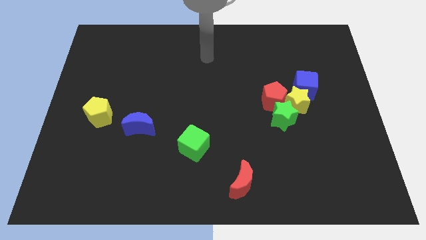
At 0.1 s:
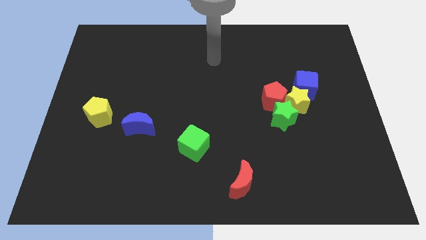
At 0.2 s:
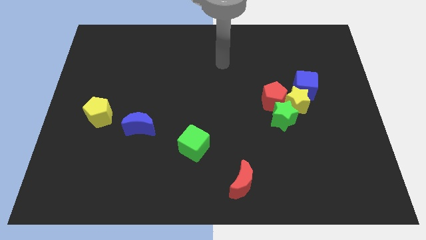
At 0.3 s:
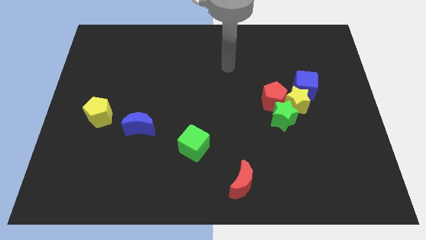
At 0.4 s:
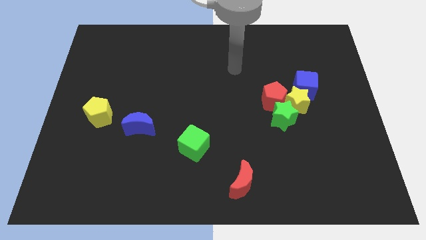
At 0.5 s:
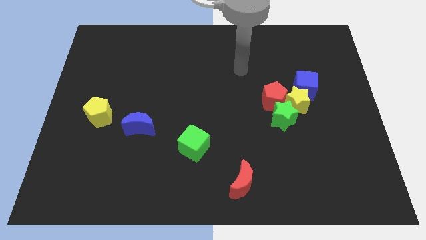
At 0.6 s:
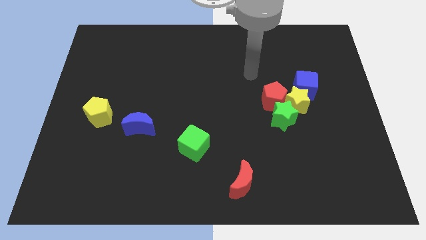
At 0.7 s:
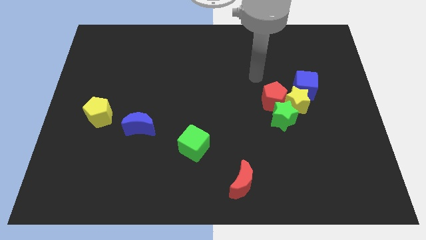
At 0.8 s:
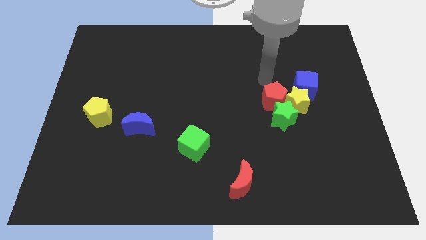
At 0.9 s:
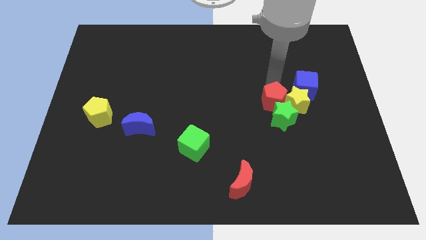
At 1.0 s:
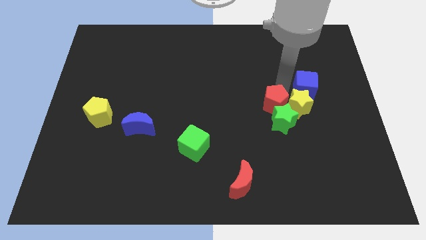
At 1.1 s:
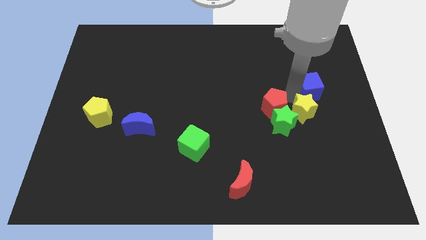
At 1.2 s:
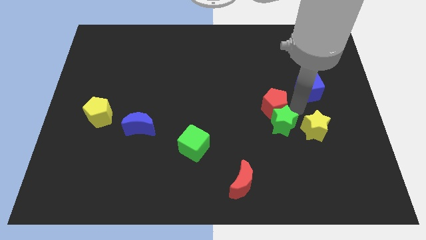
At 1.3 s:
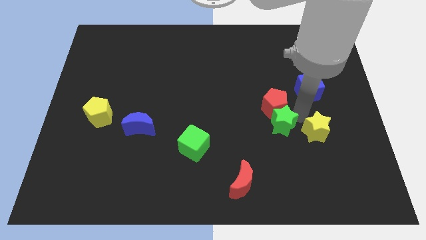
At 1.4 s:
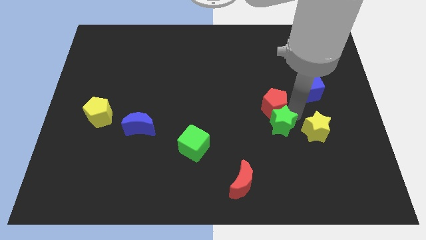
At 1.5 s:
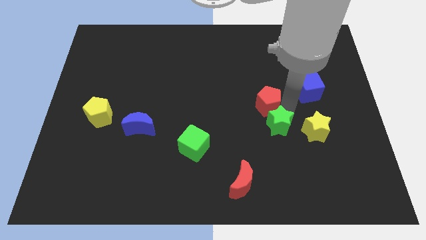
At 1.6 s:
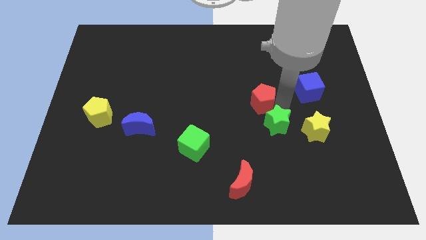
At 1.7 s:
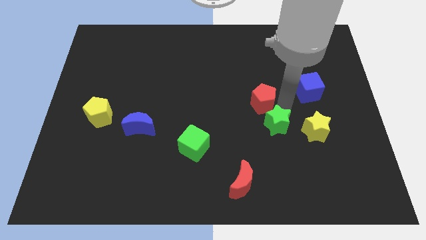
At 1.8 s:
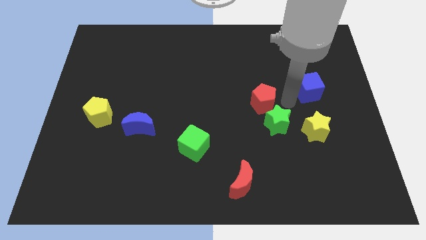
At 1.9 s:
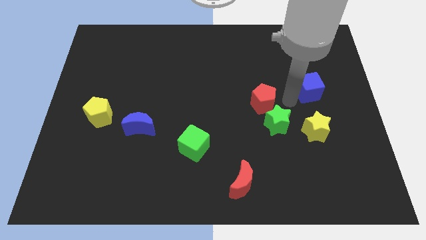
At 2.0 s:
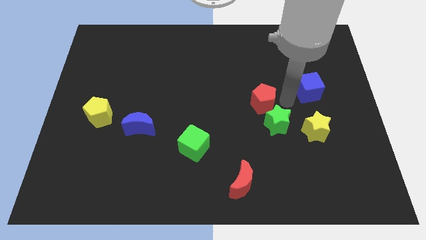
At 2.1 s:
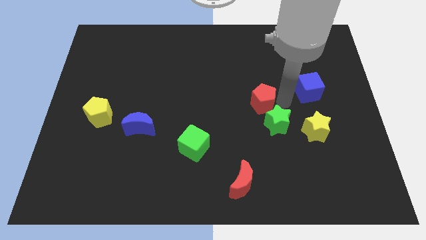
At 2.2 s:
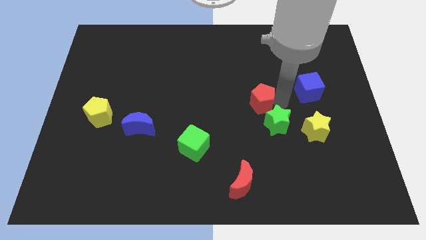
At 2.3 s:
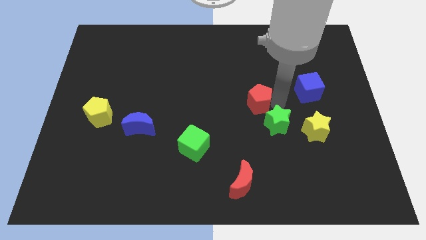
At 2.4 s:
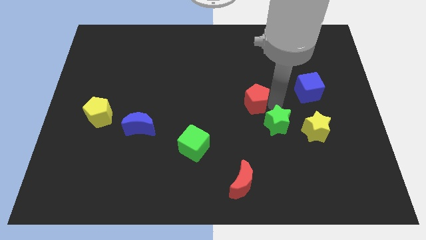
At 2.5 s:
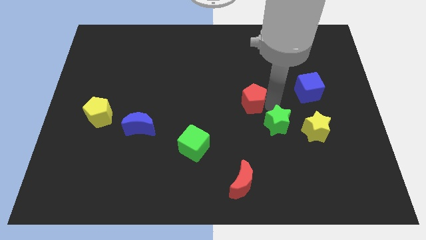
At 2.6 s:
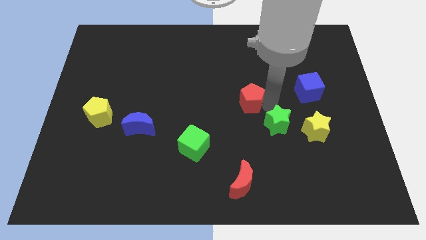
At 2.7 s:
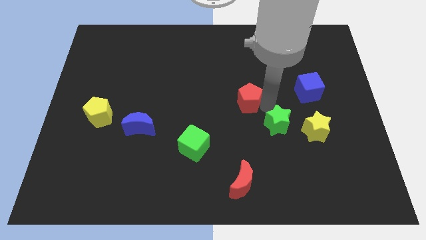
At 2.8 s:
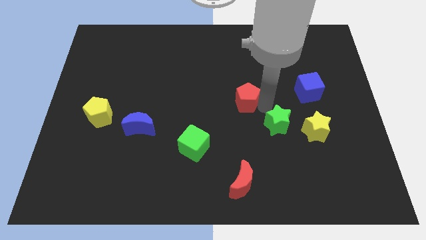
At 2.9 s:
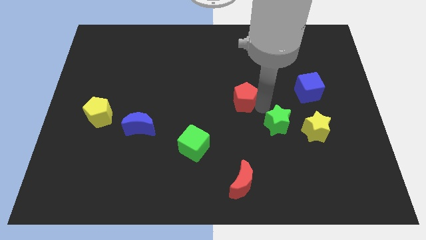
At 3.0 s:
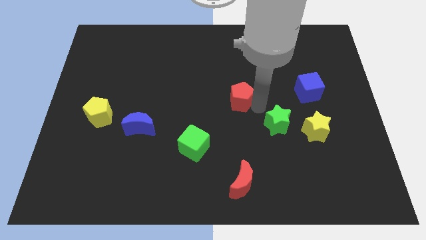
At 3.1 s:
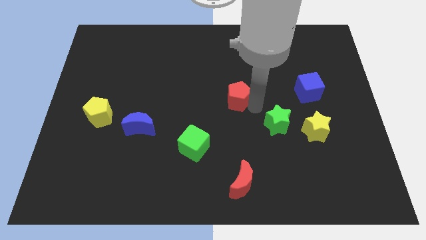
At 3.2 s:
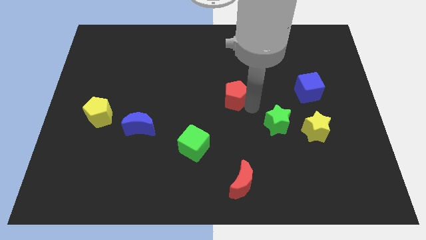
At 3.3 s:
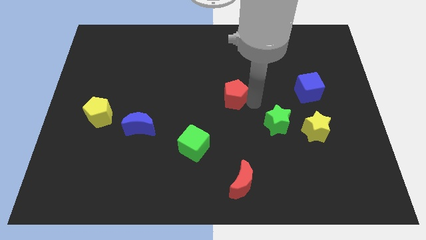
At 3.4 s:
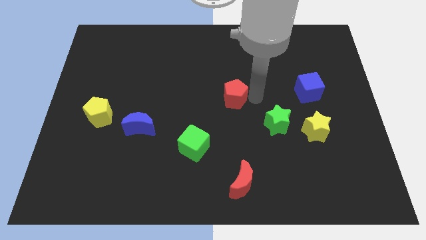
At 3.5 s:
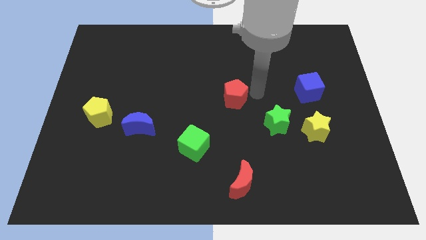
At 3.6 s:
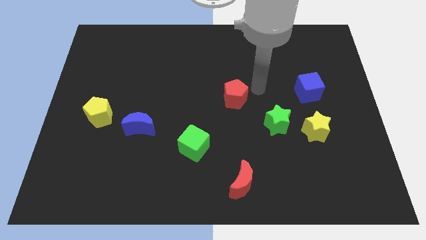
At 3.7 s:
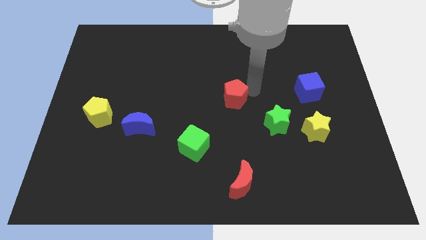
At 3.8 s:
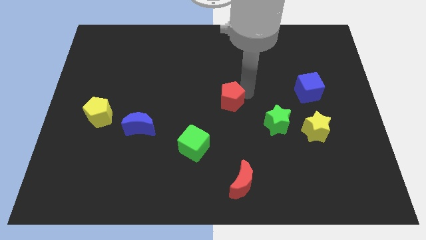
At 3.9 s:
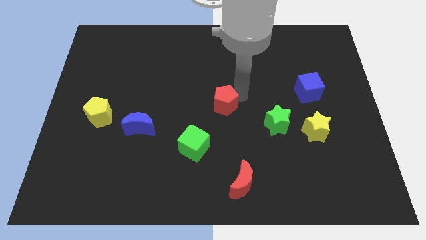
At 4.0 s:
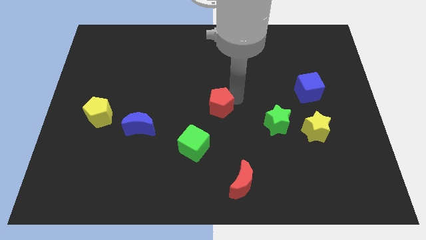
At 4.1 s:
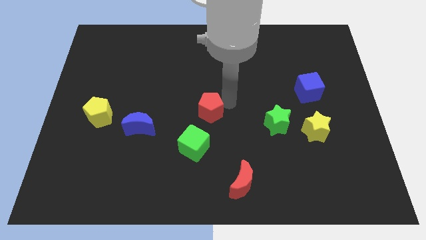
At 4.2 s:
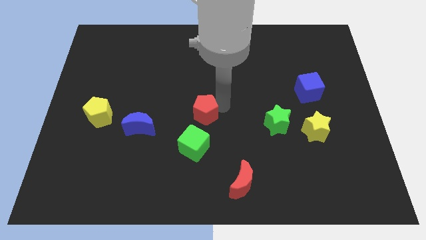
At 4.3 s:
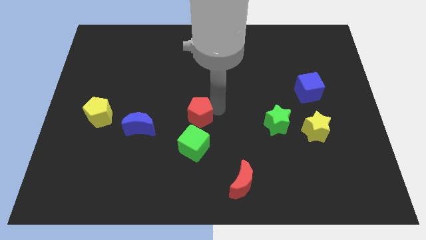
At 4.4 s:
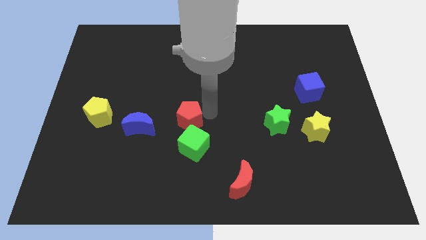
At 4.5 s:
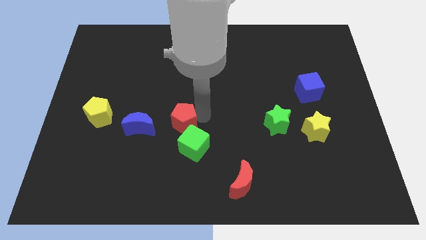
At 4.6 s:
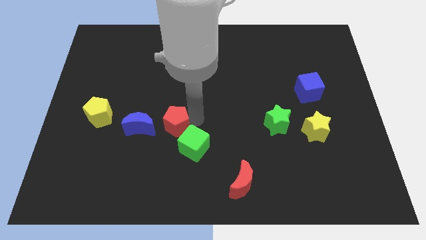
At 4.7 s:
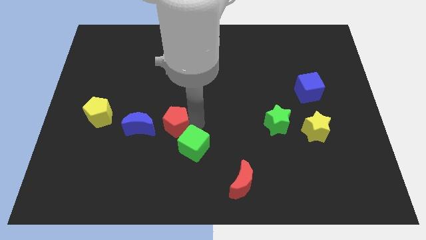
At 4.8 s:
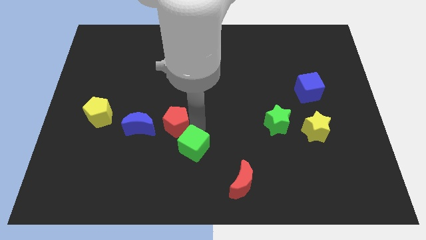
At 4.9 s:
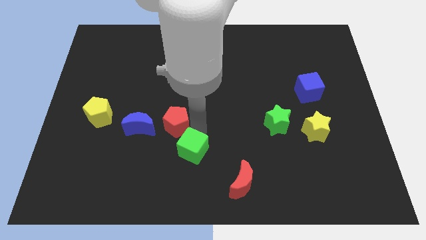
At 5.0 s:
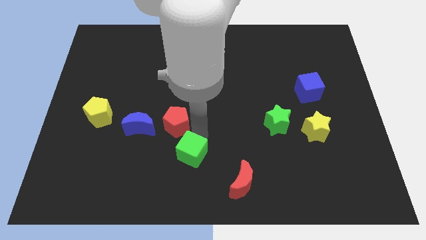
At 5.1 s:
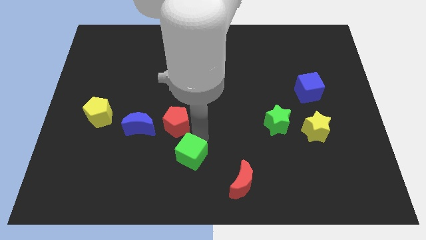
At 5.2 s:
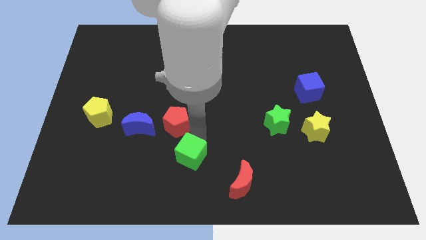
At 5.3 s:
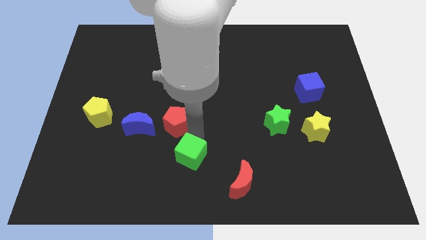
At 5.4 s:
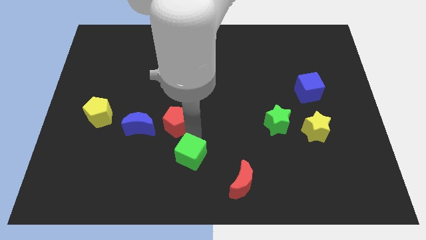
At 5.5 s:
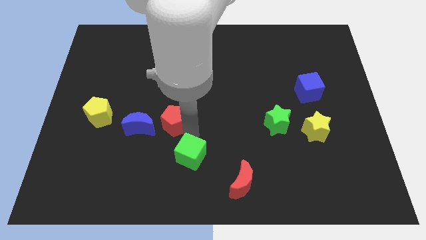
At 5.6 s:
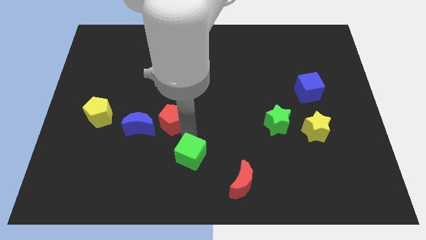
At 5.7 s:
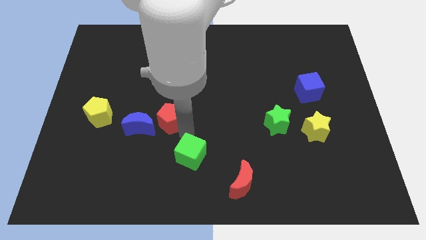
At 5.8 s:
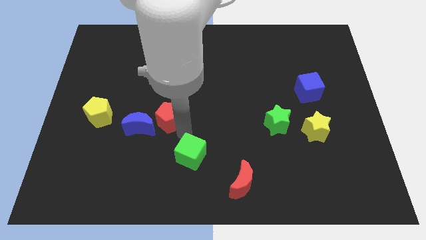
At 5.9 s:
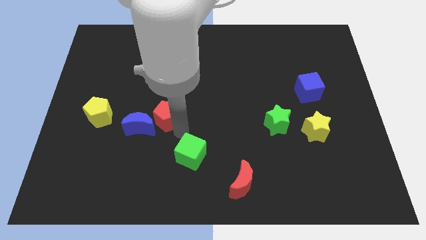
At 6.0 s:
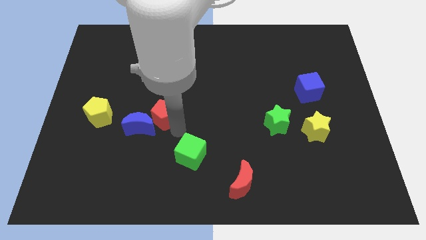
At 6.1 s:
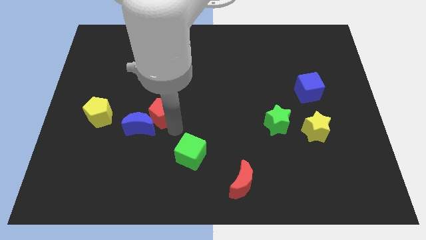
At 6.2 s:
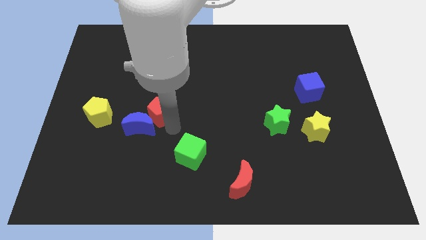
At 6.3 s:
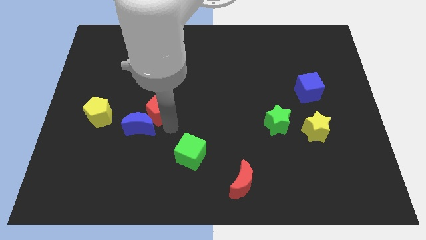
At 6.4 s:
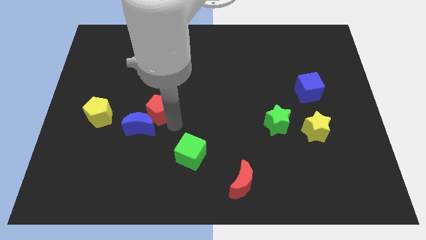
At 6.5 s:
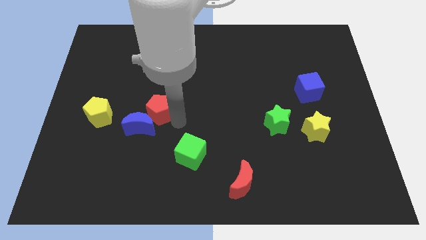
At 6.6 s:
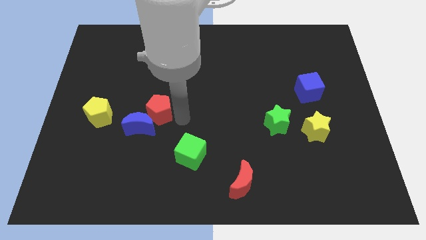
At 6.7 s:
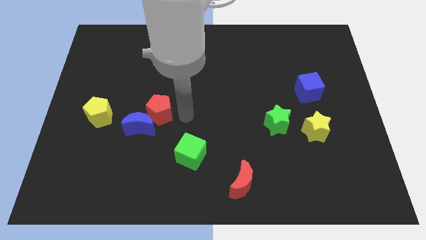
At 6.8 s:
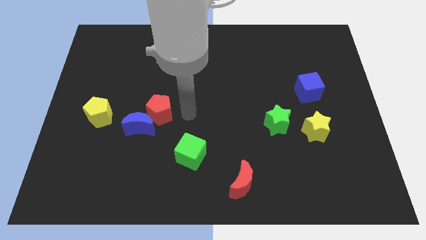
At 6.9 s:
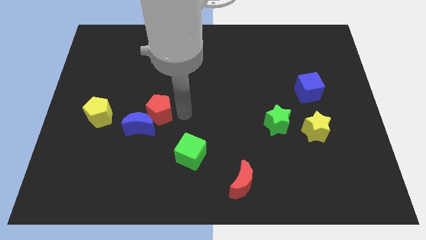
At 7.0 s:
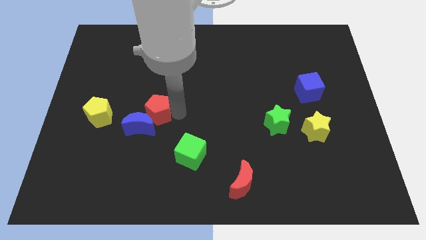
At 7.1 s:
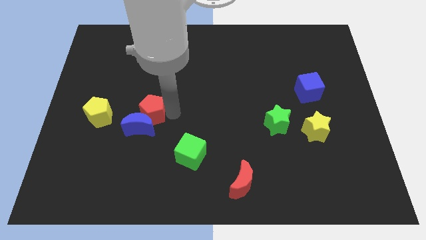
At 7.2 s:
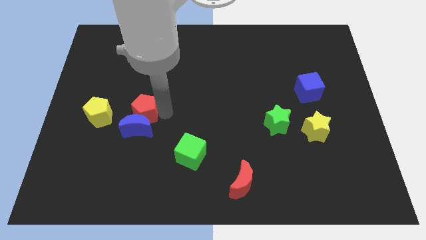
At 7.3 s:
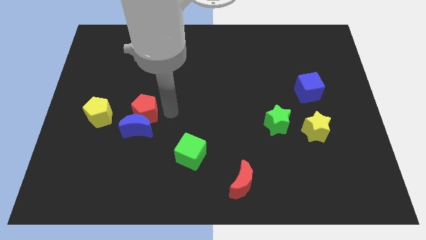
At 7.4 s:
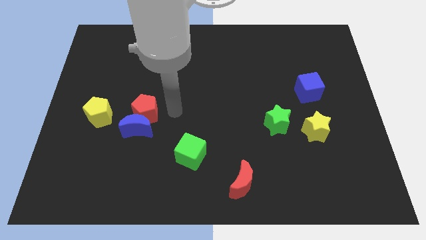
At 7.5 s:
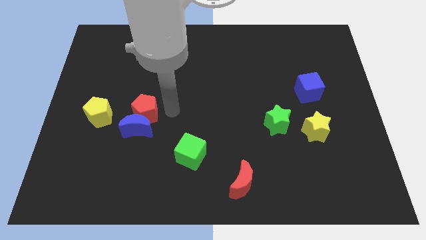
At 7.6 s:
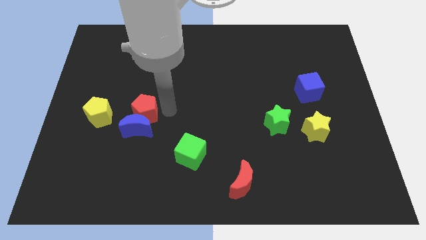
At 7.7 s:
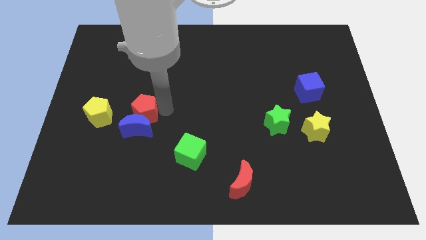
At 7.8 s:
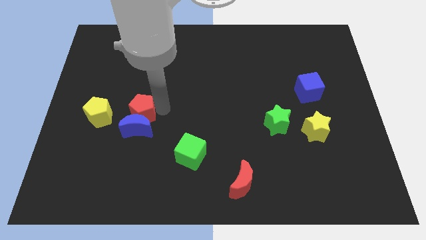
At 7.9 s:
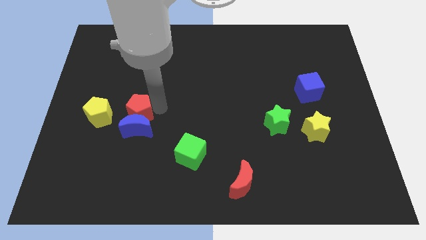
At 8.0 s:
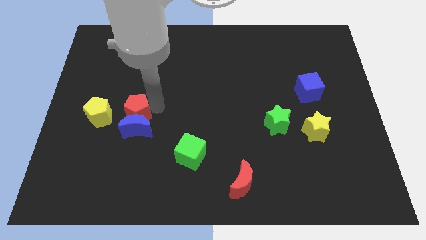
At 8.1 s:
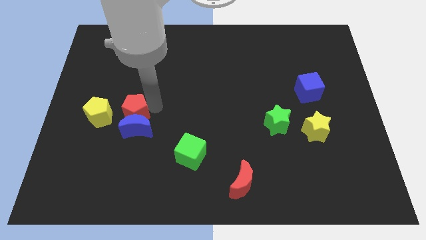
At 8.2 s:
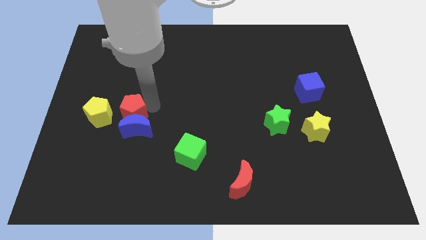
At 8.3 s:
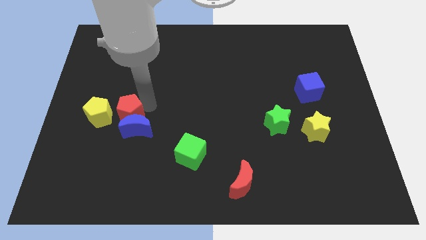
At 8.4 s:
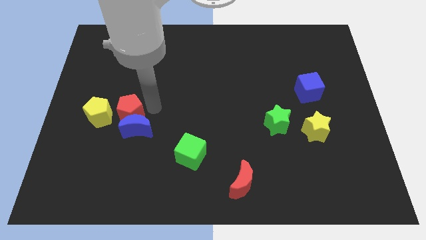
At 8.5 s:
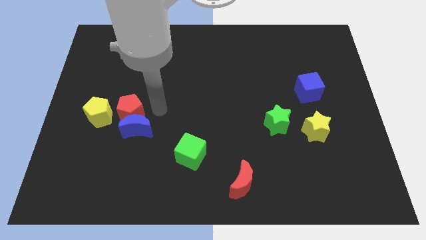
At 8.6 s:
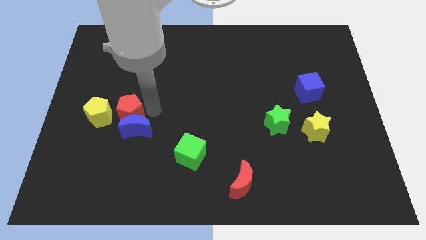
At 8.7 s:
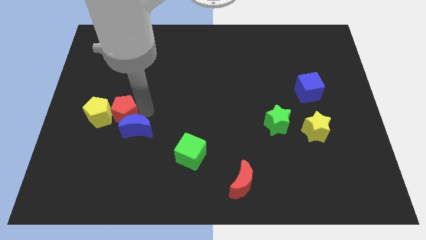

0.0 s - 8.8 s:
push the red pentagon next to the yellow pentagon
